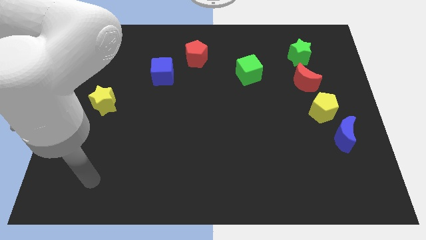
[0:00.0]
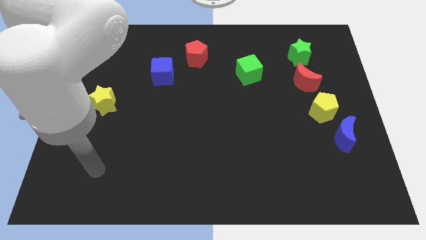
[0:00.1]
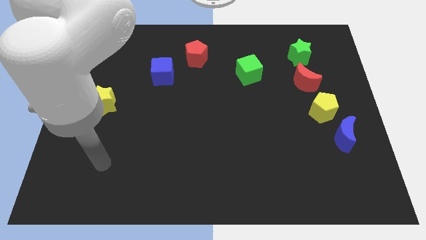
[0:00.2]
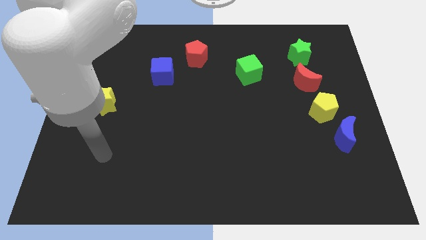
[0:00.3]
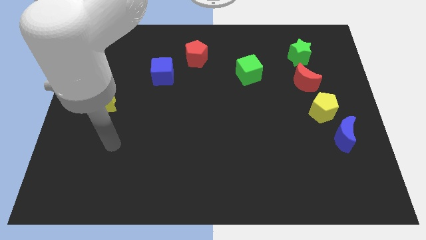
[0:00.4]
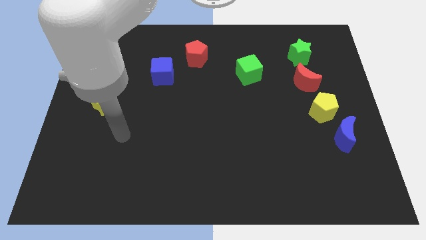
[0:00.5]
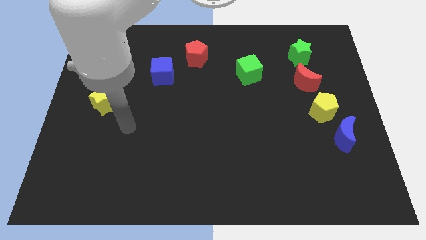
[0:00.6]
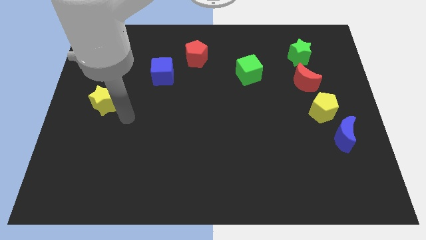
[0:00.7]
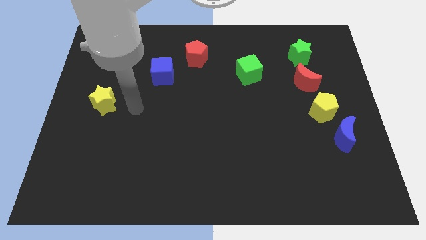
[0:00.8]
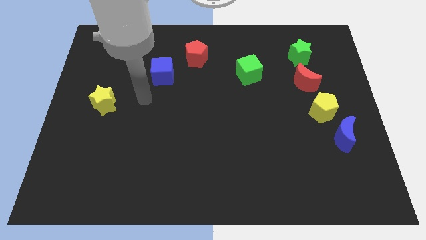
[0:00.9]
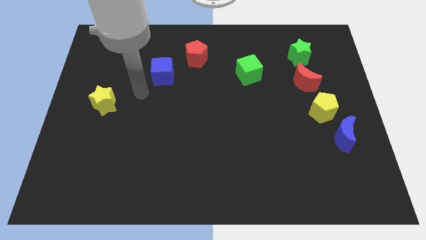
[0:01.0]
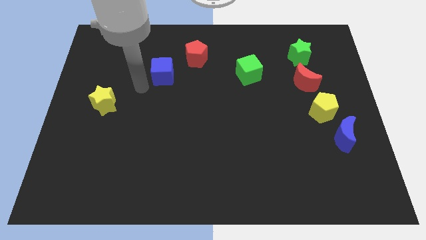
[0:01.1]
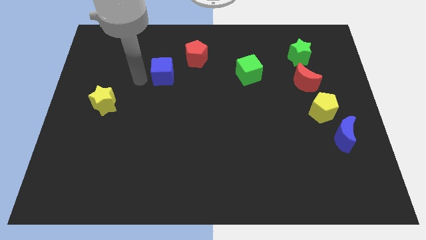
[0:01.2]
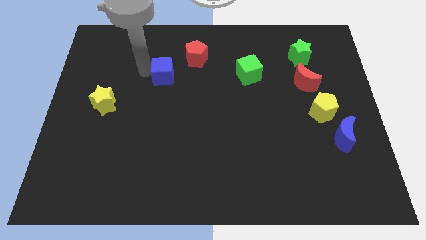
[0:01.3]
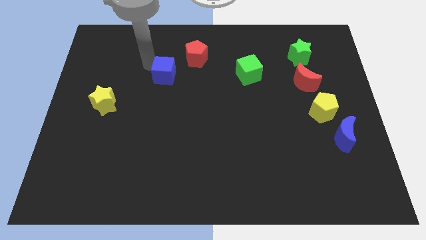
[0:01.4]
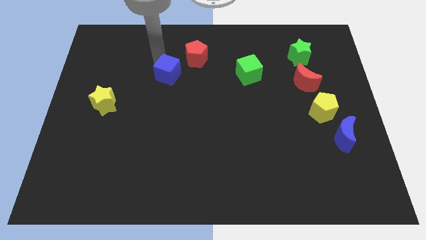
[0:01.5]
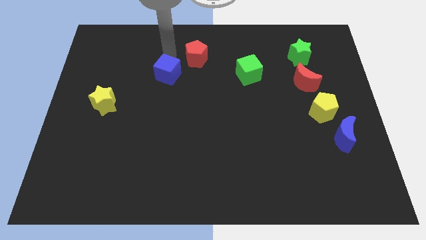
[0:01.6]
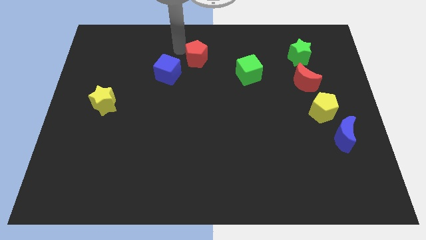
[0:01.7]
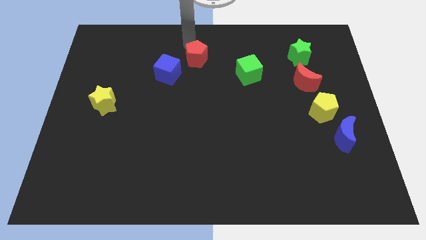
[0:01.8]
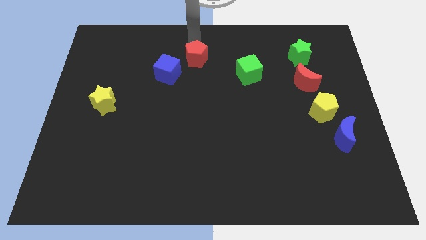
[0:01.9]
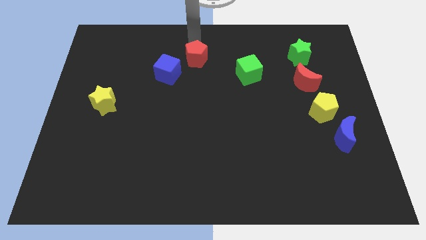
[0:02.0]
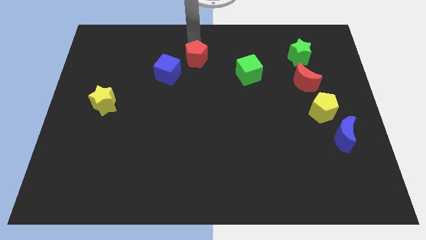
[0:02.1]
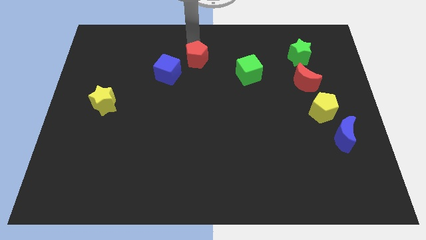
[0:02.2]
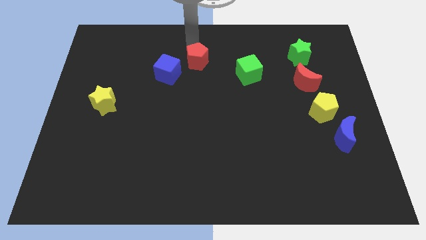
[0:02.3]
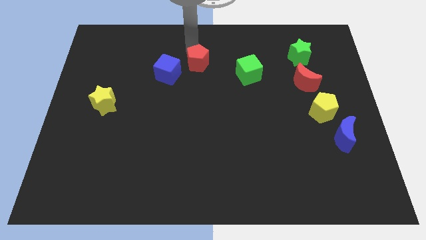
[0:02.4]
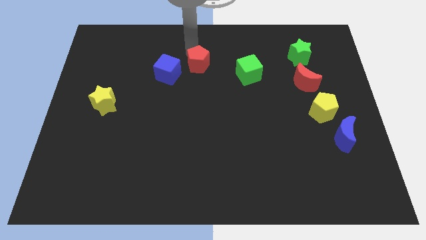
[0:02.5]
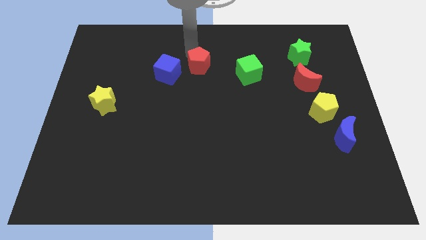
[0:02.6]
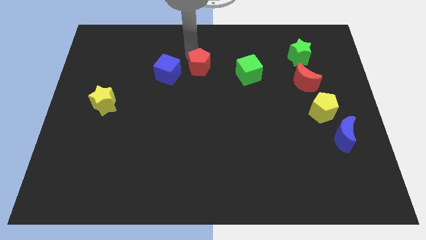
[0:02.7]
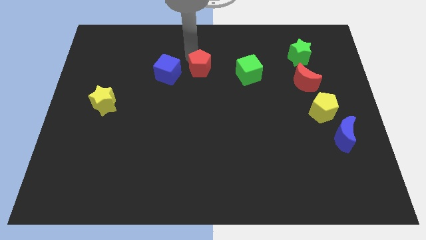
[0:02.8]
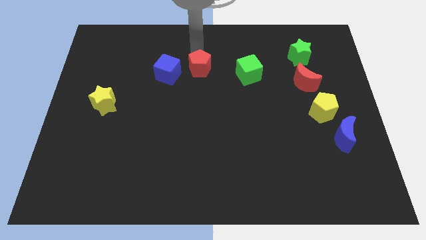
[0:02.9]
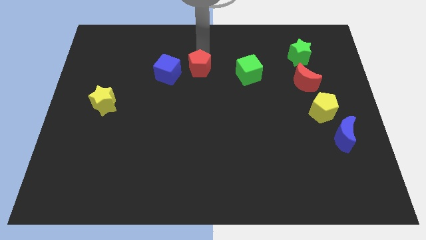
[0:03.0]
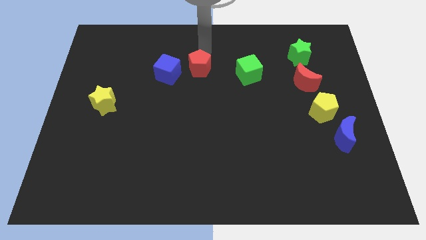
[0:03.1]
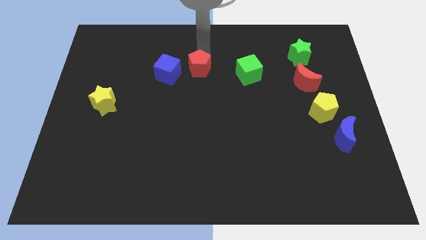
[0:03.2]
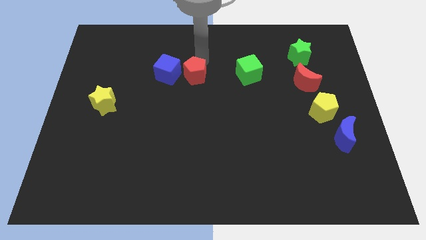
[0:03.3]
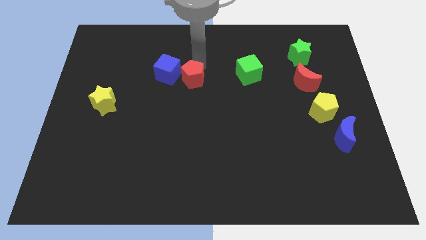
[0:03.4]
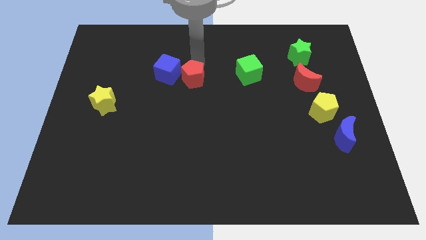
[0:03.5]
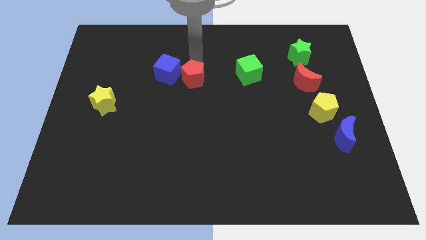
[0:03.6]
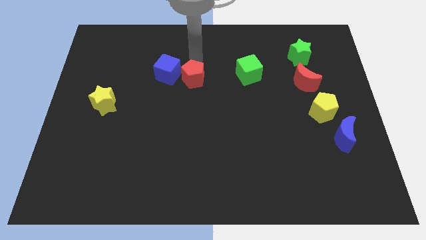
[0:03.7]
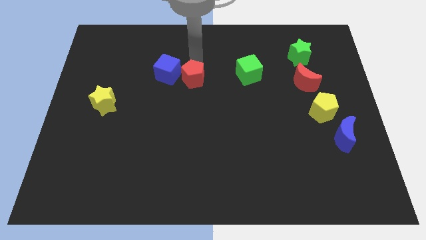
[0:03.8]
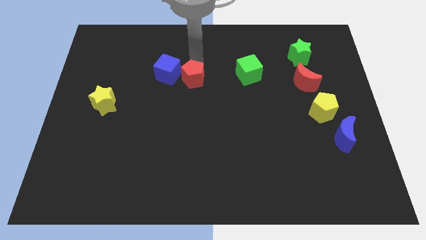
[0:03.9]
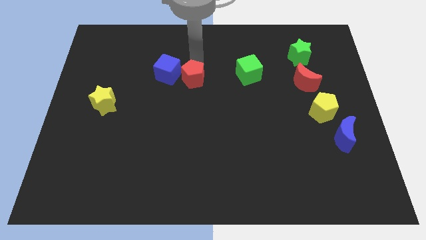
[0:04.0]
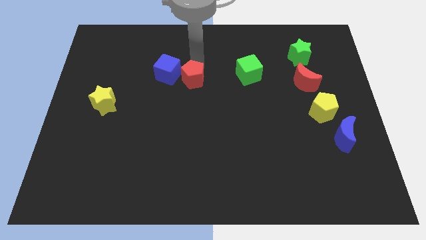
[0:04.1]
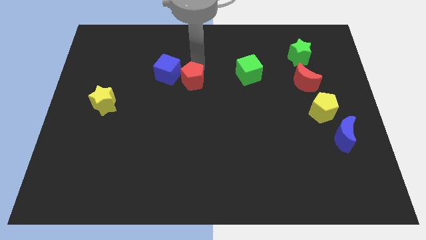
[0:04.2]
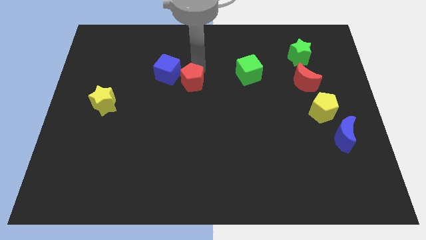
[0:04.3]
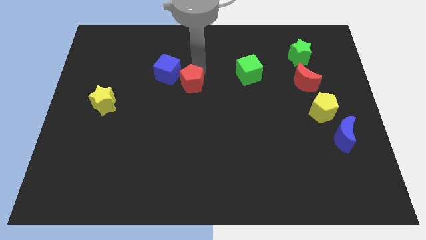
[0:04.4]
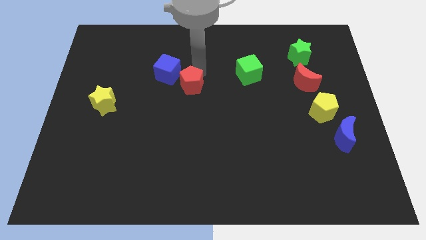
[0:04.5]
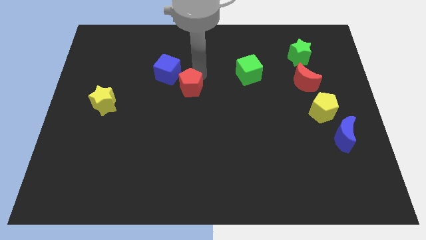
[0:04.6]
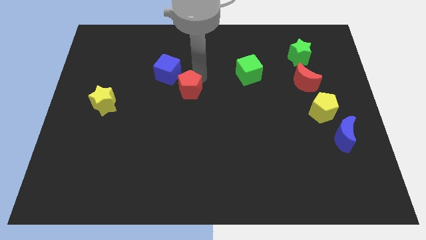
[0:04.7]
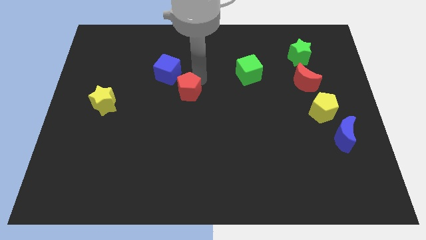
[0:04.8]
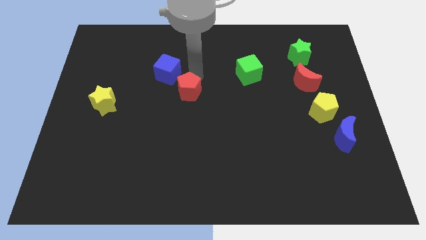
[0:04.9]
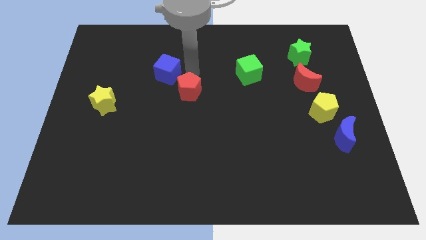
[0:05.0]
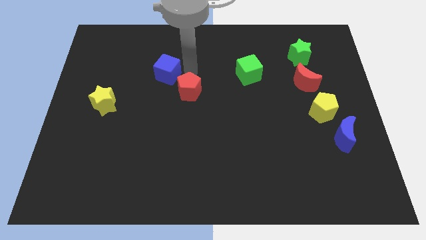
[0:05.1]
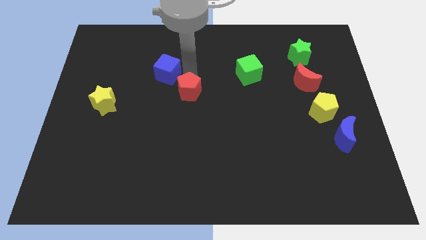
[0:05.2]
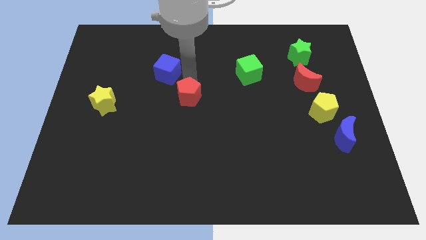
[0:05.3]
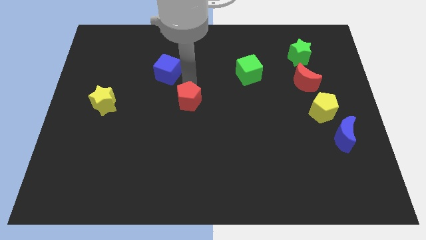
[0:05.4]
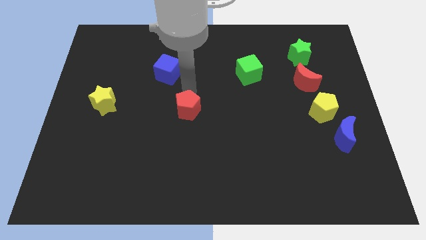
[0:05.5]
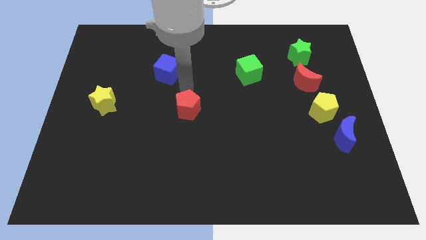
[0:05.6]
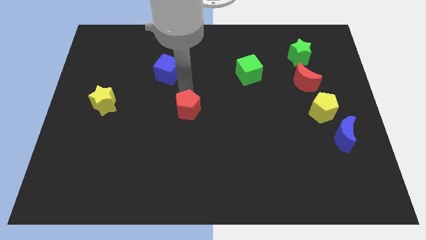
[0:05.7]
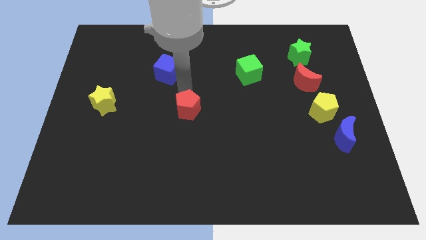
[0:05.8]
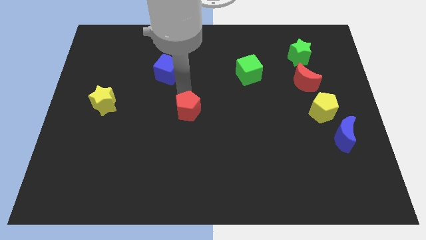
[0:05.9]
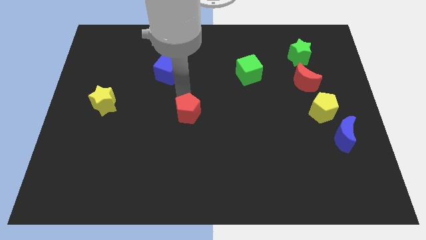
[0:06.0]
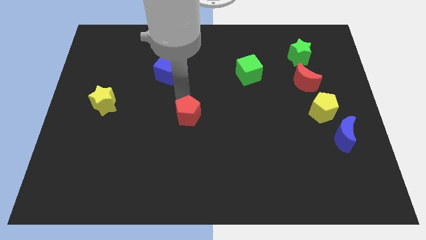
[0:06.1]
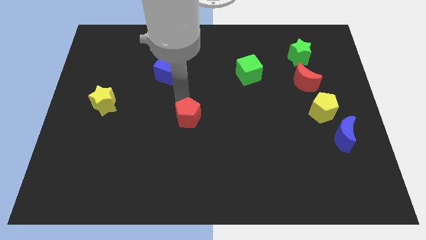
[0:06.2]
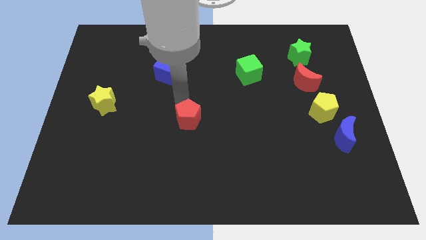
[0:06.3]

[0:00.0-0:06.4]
slide the red pentagon down

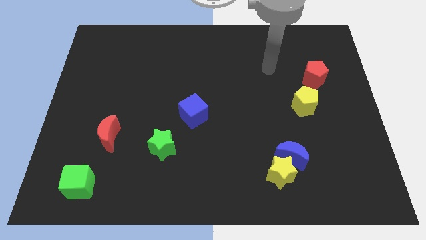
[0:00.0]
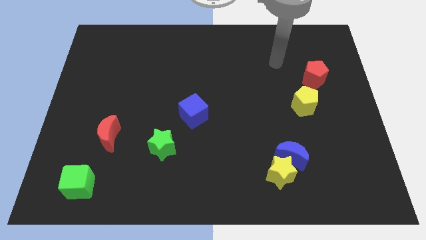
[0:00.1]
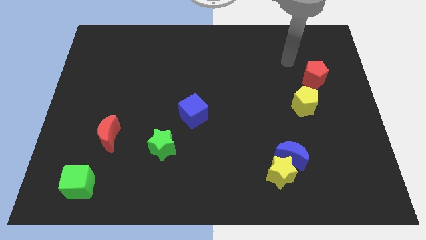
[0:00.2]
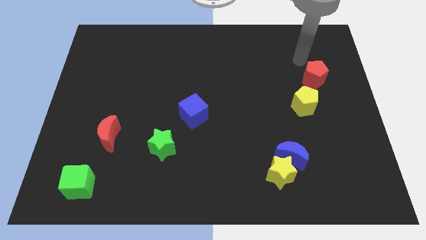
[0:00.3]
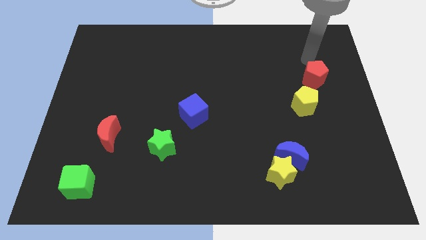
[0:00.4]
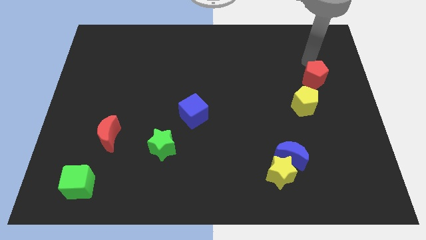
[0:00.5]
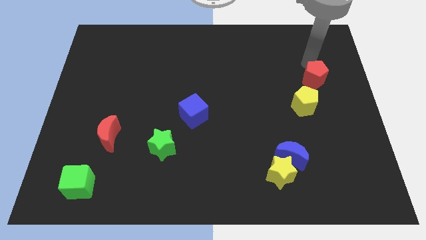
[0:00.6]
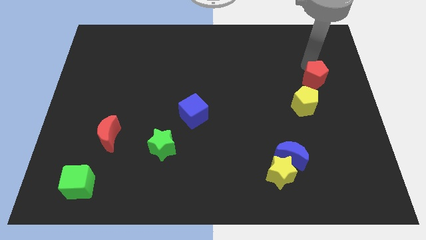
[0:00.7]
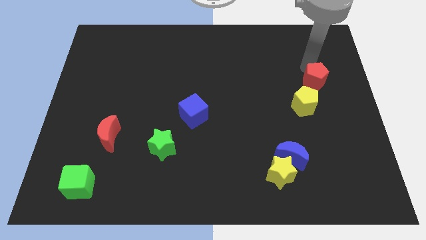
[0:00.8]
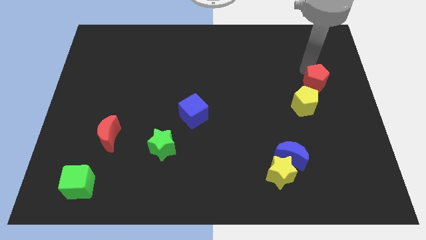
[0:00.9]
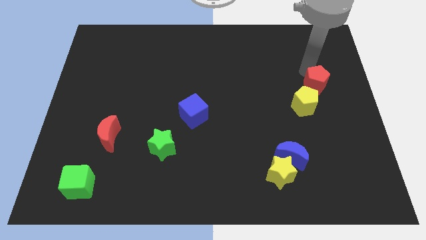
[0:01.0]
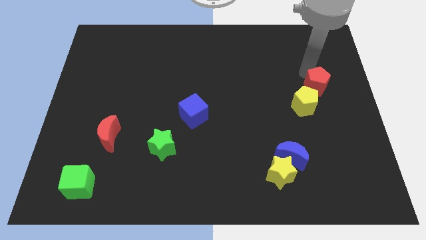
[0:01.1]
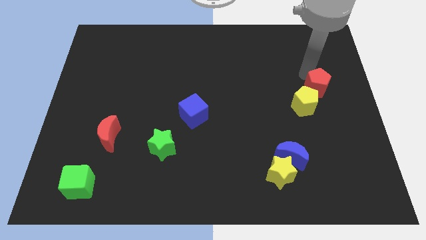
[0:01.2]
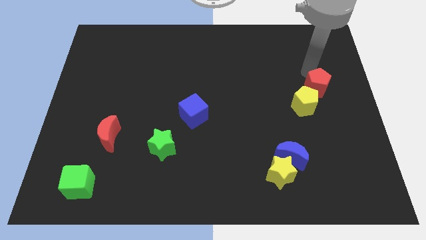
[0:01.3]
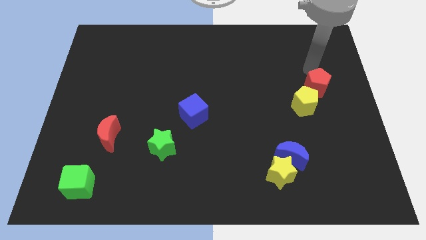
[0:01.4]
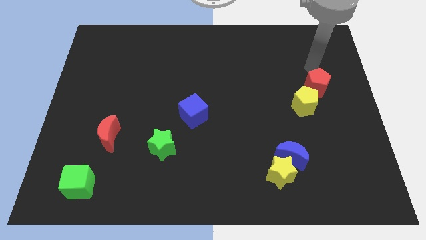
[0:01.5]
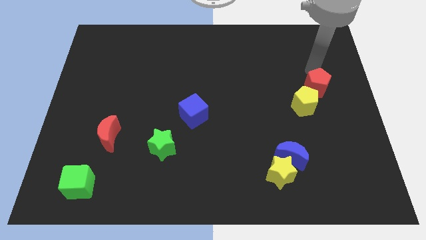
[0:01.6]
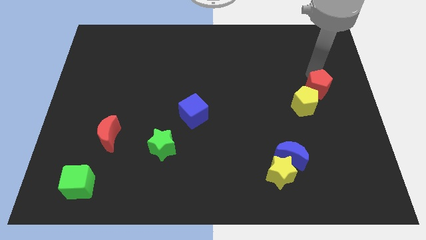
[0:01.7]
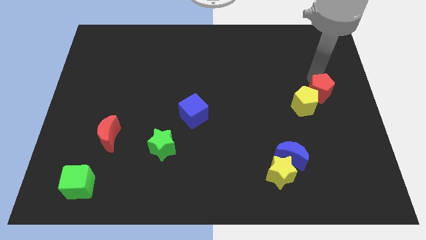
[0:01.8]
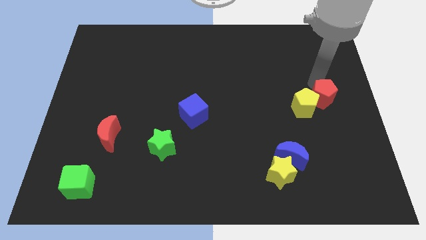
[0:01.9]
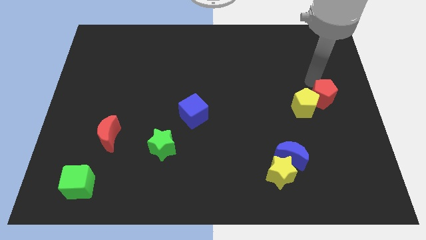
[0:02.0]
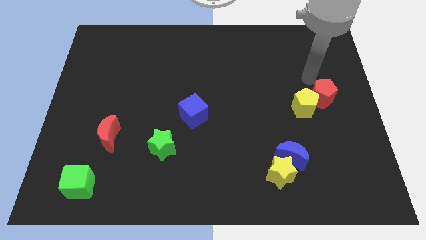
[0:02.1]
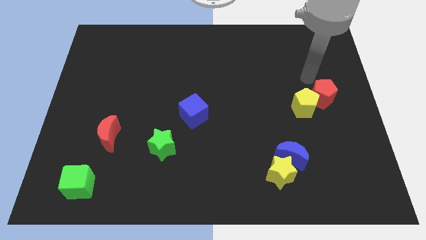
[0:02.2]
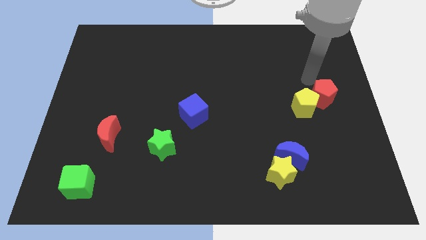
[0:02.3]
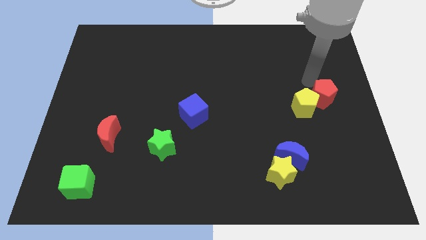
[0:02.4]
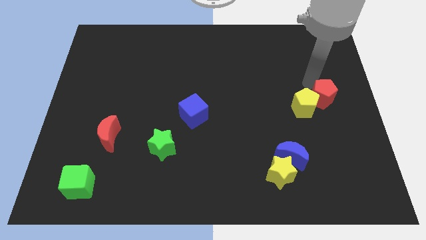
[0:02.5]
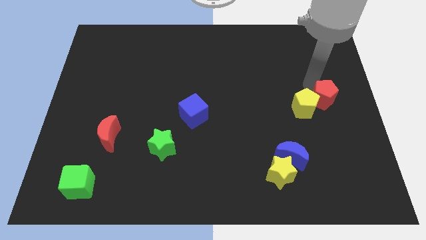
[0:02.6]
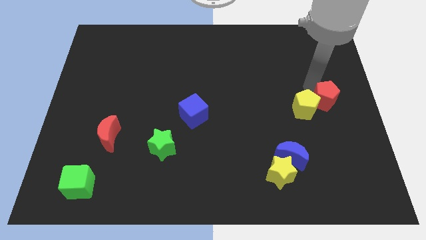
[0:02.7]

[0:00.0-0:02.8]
move the red pentagon a little down
